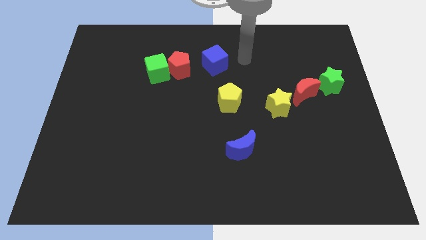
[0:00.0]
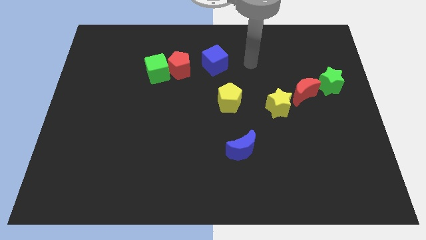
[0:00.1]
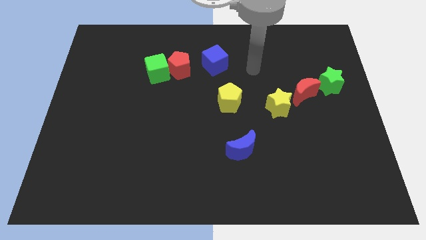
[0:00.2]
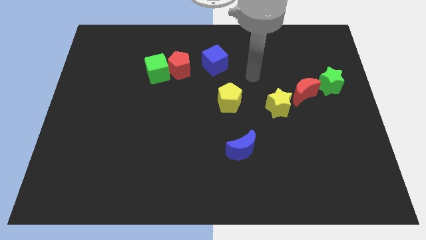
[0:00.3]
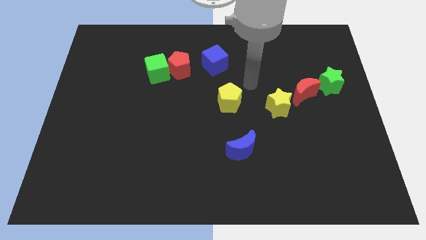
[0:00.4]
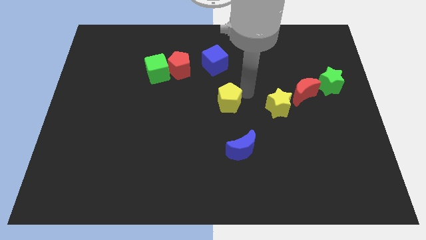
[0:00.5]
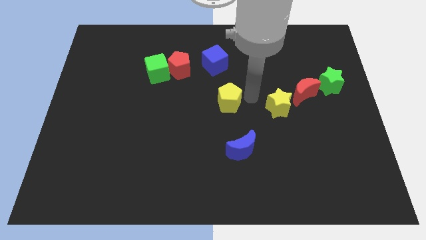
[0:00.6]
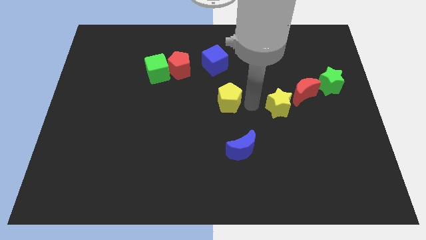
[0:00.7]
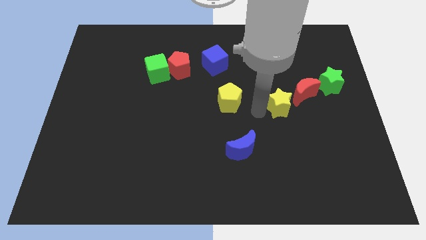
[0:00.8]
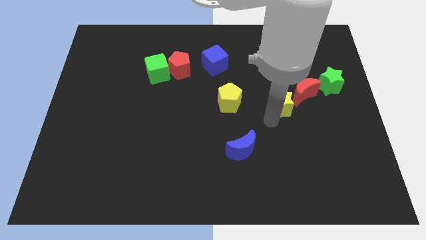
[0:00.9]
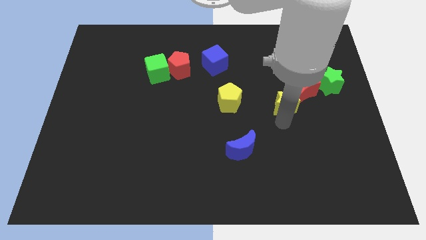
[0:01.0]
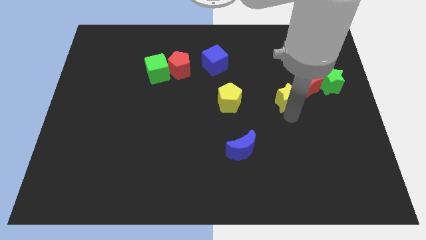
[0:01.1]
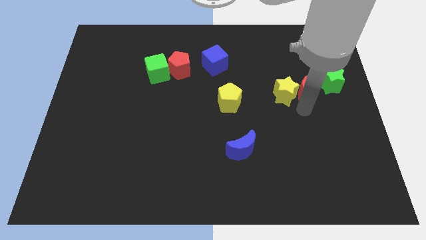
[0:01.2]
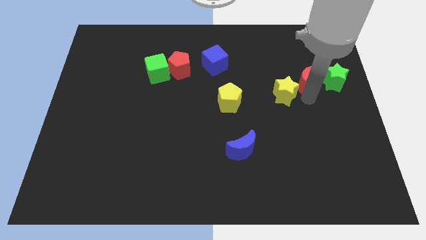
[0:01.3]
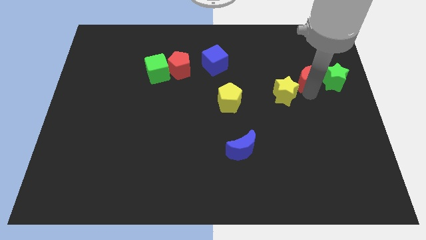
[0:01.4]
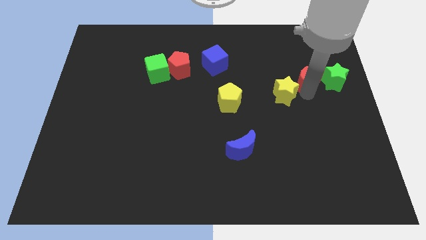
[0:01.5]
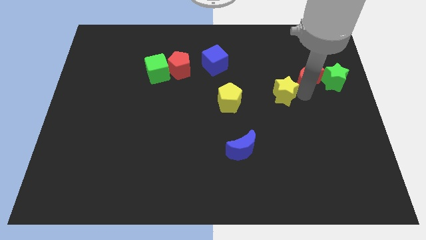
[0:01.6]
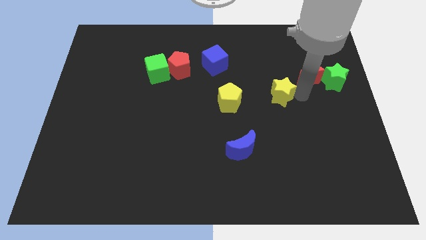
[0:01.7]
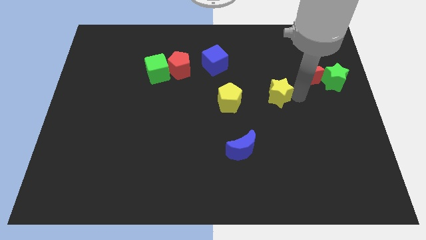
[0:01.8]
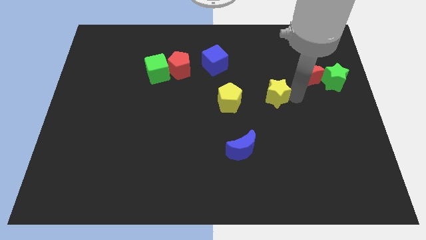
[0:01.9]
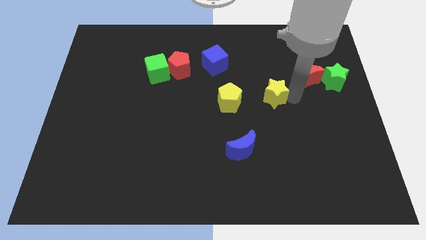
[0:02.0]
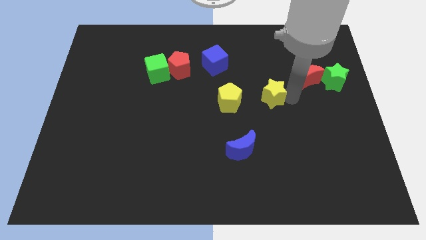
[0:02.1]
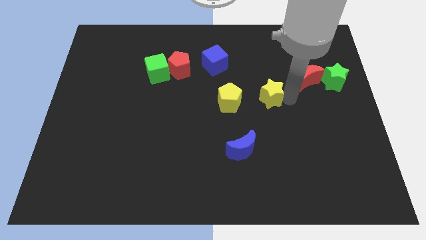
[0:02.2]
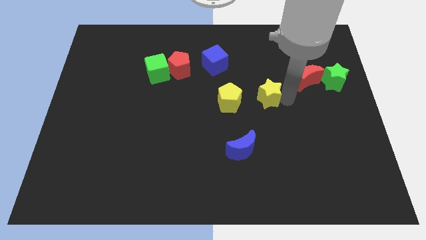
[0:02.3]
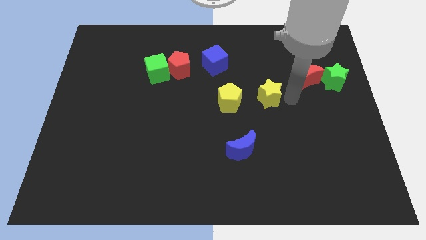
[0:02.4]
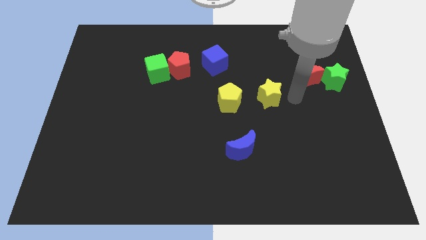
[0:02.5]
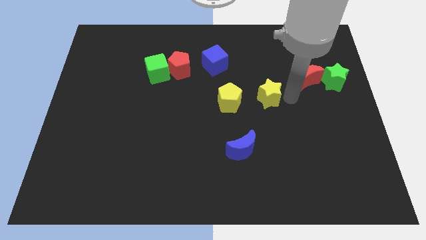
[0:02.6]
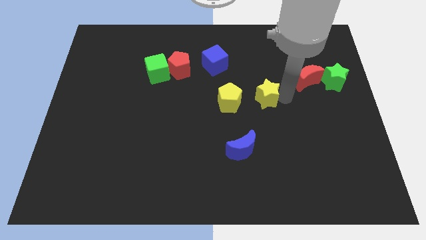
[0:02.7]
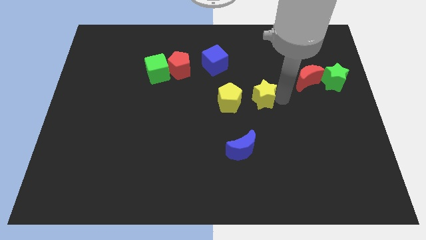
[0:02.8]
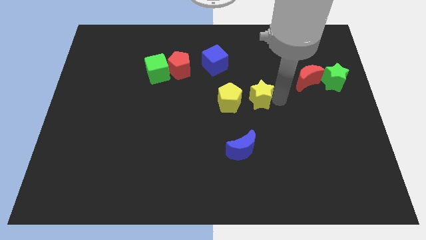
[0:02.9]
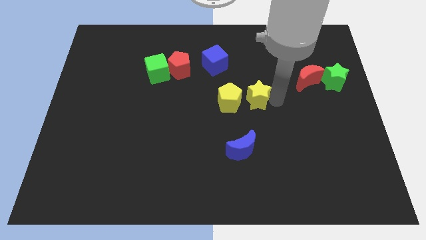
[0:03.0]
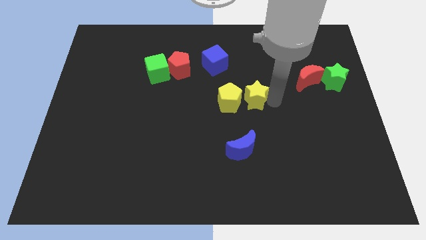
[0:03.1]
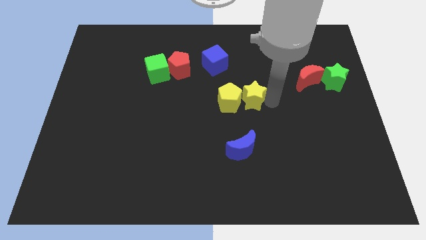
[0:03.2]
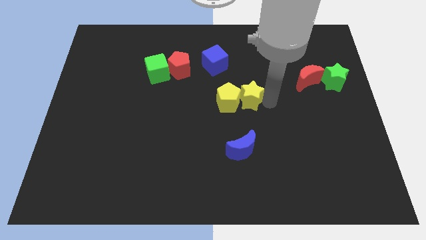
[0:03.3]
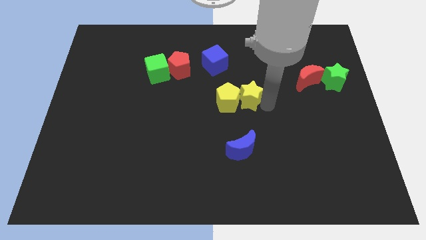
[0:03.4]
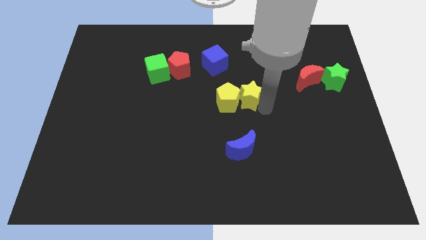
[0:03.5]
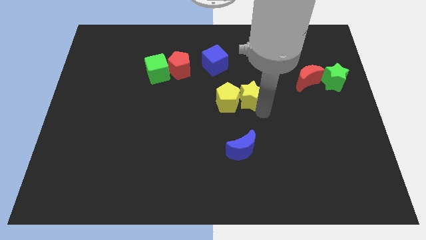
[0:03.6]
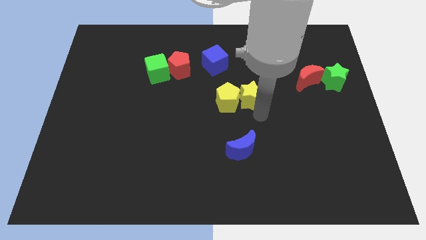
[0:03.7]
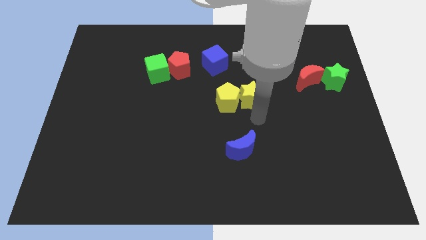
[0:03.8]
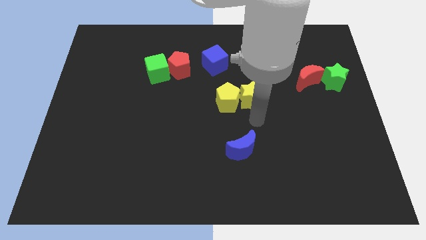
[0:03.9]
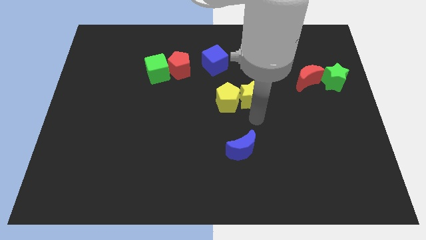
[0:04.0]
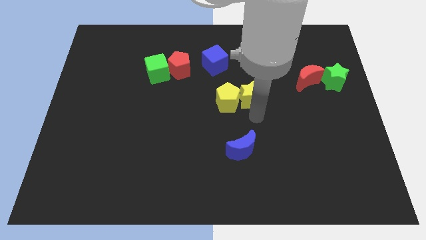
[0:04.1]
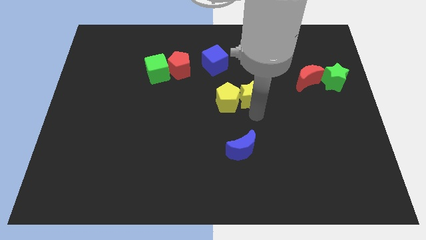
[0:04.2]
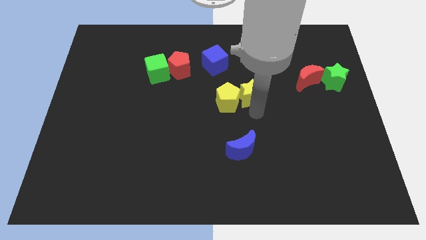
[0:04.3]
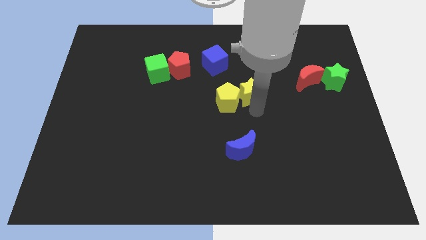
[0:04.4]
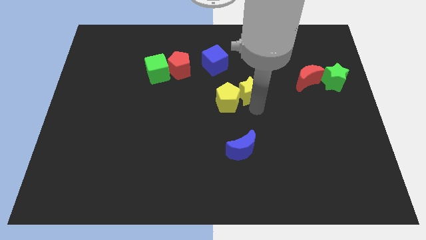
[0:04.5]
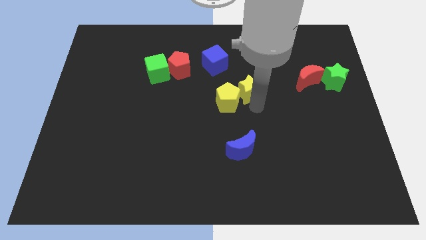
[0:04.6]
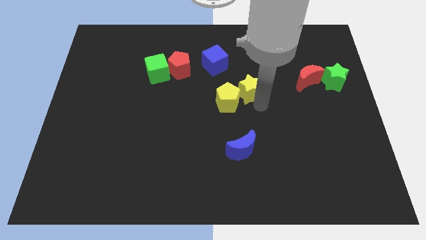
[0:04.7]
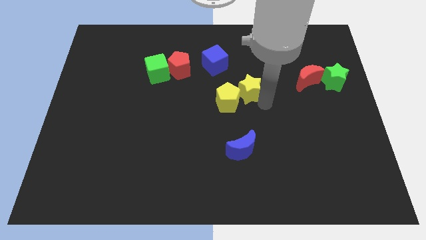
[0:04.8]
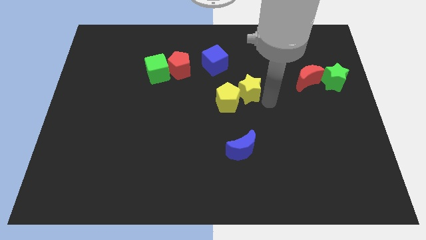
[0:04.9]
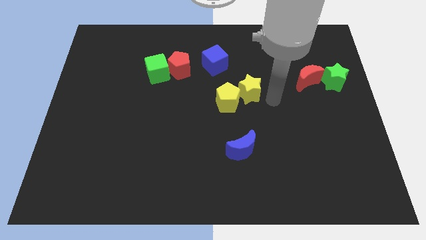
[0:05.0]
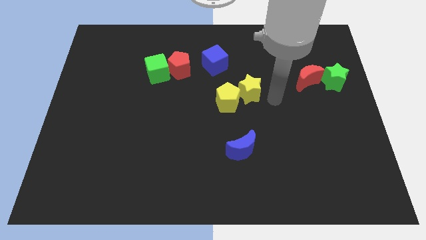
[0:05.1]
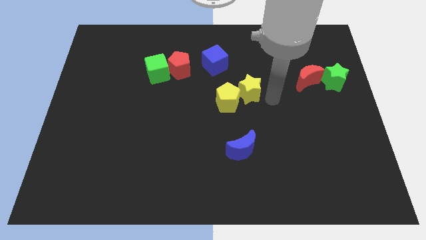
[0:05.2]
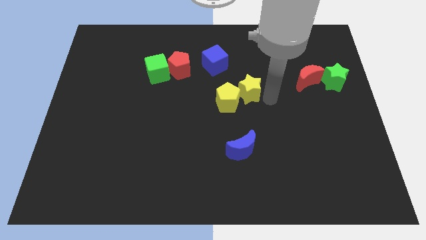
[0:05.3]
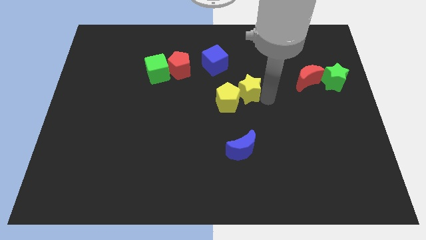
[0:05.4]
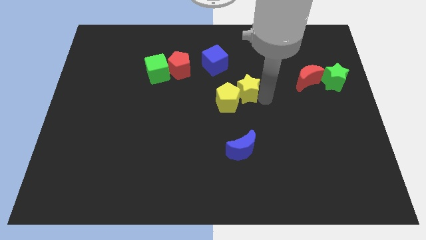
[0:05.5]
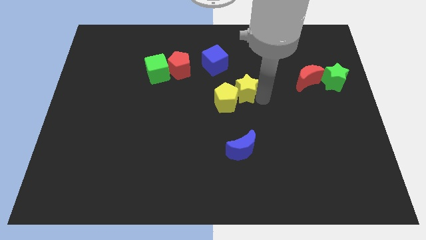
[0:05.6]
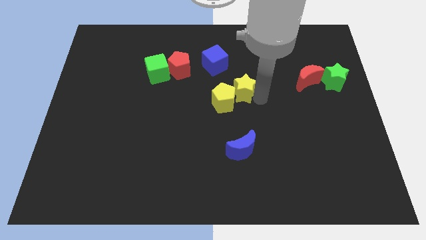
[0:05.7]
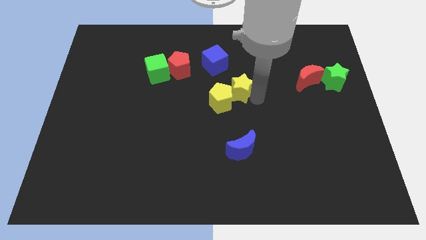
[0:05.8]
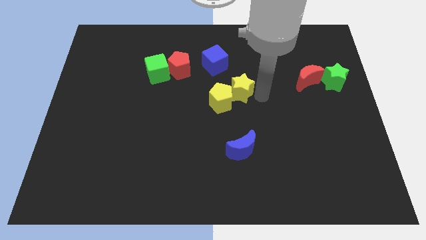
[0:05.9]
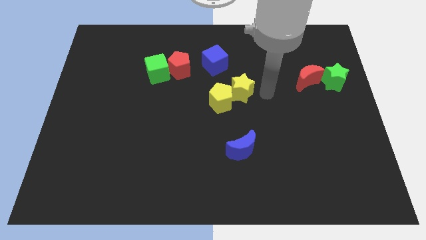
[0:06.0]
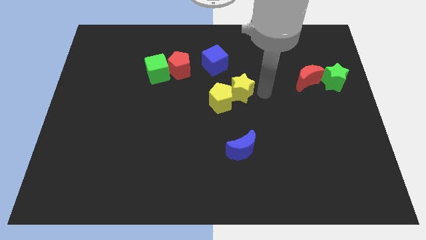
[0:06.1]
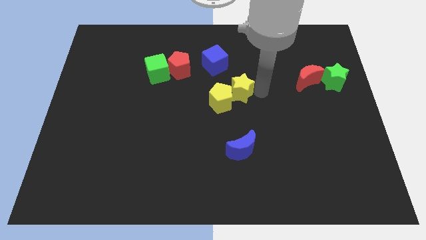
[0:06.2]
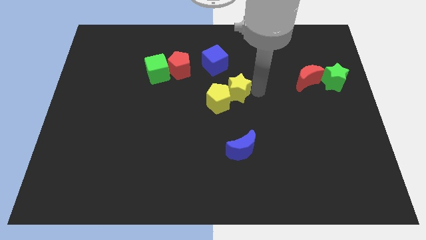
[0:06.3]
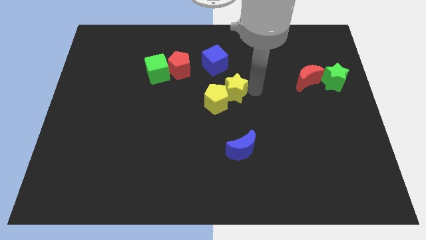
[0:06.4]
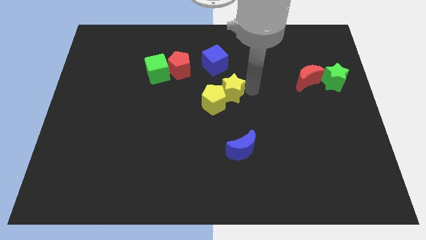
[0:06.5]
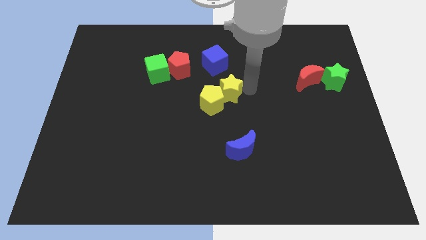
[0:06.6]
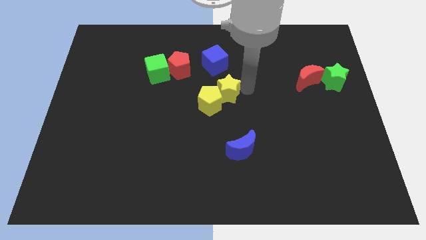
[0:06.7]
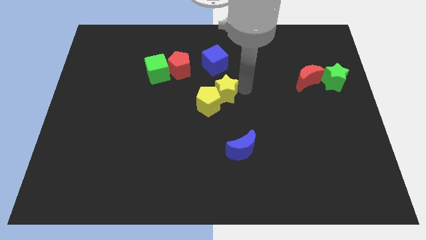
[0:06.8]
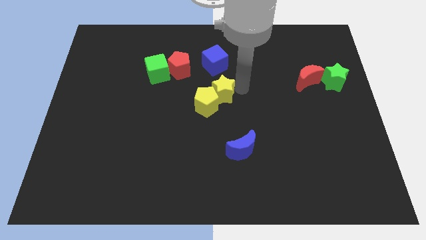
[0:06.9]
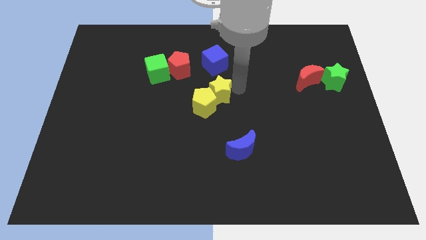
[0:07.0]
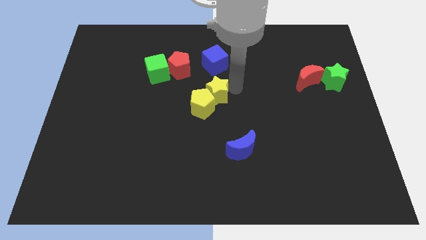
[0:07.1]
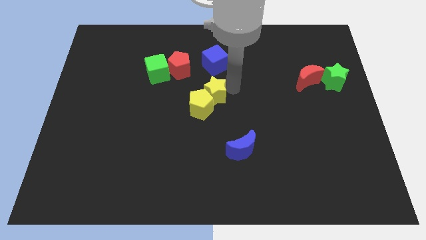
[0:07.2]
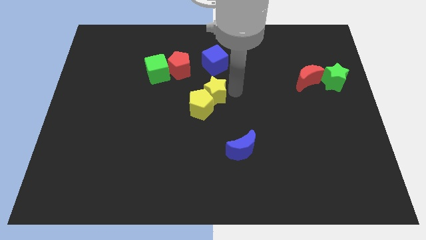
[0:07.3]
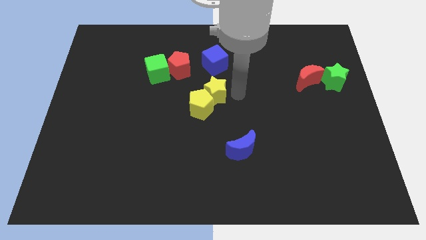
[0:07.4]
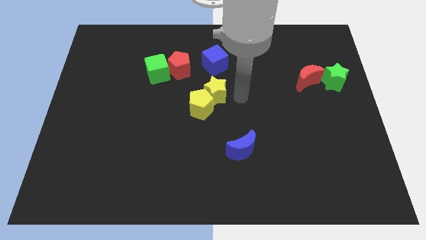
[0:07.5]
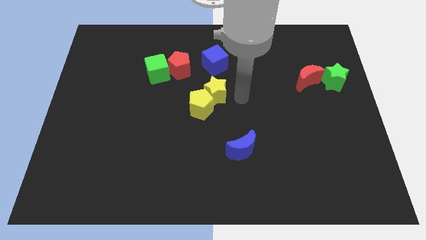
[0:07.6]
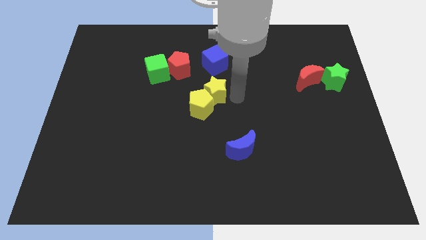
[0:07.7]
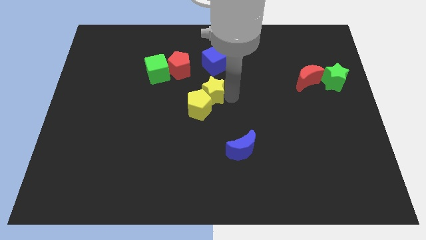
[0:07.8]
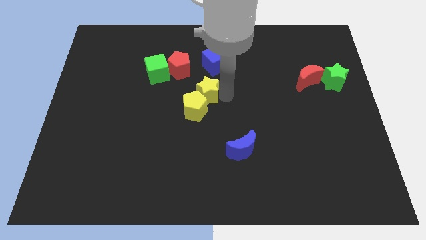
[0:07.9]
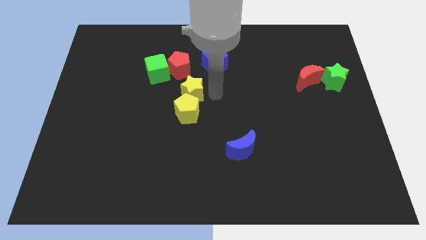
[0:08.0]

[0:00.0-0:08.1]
push the yellow star to the left
